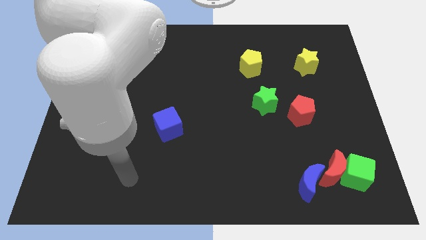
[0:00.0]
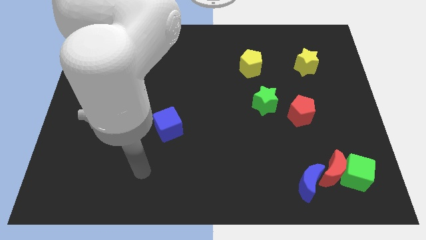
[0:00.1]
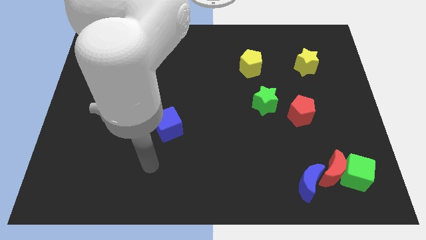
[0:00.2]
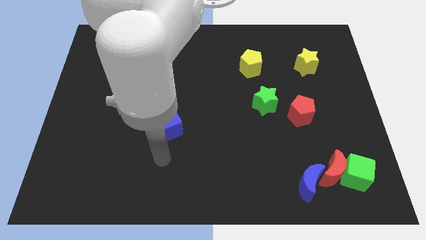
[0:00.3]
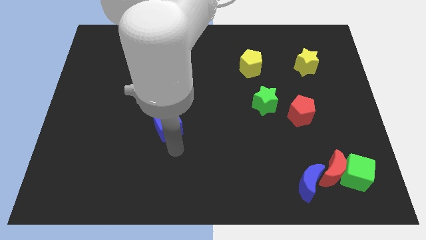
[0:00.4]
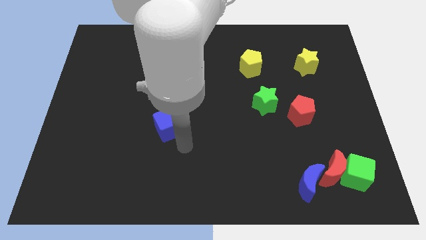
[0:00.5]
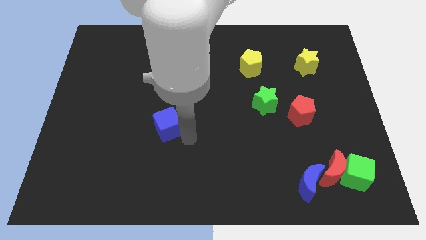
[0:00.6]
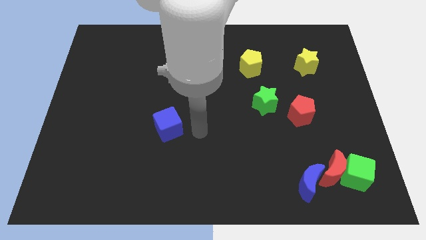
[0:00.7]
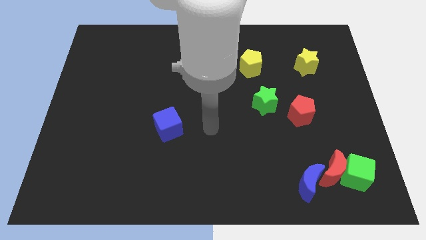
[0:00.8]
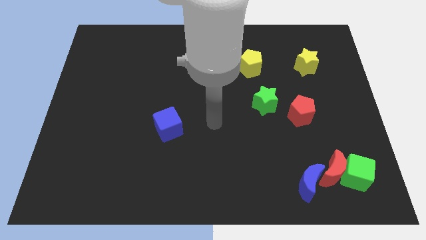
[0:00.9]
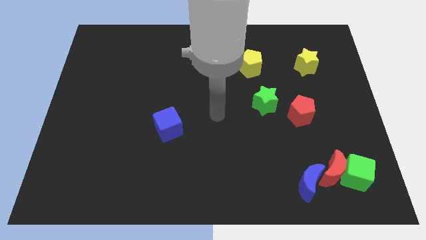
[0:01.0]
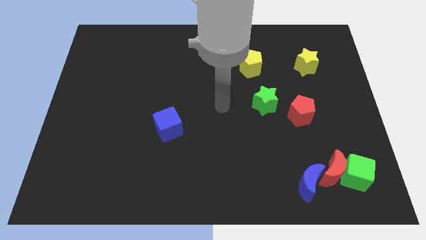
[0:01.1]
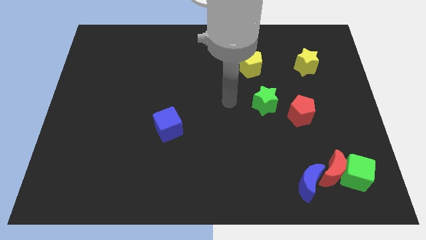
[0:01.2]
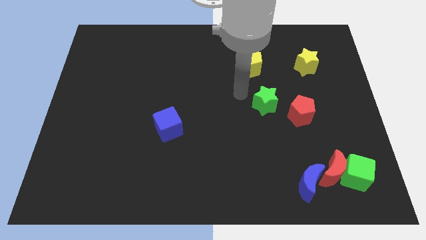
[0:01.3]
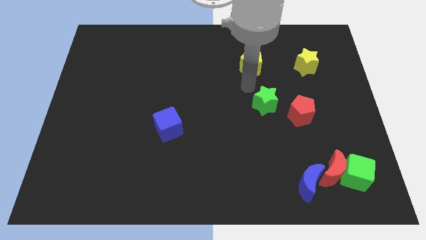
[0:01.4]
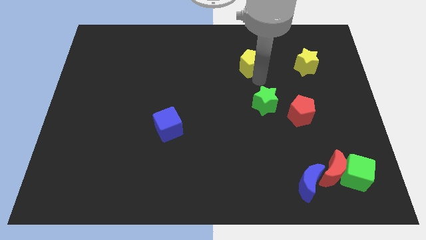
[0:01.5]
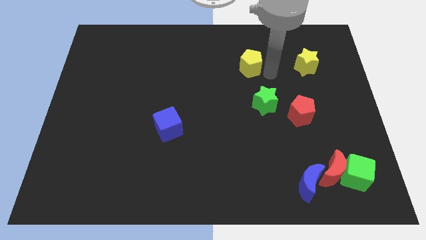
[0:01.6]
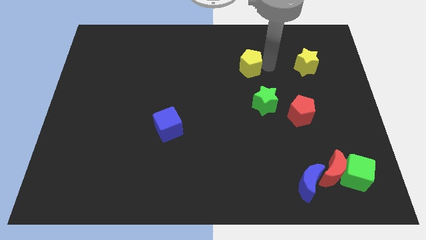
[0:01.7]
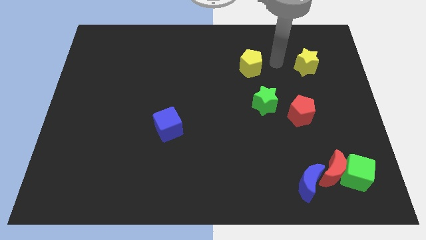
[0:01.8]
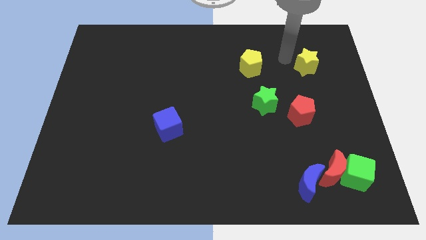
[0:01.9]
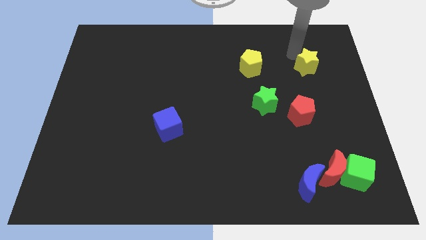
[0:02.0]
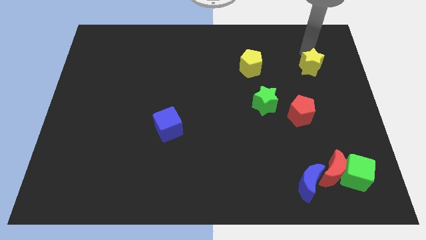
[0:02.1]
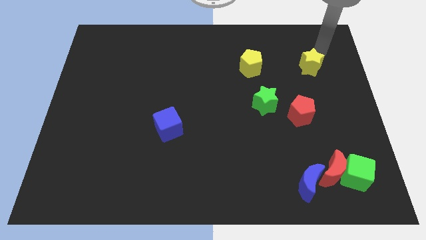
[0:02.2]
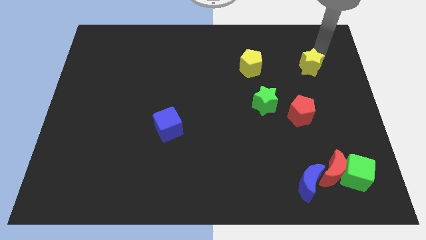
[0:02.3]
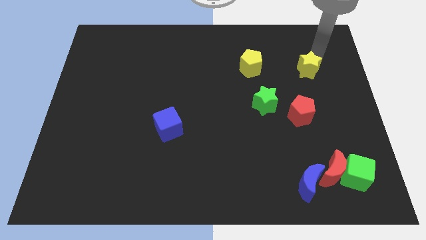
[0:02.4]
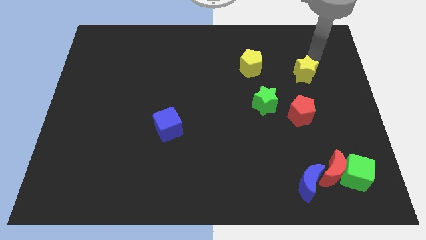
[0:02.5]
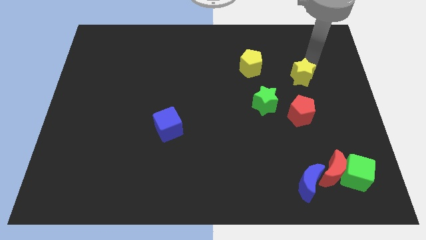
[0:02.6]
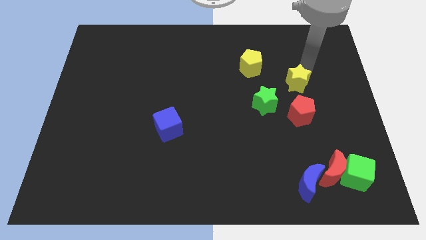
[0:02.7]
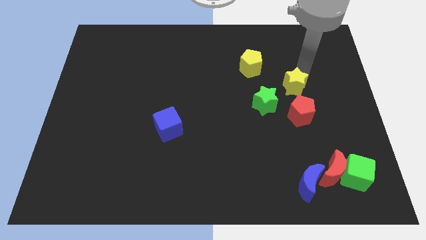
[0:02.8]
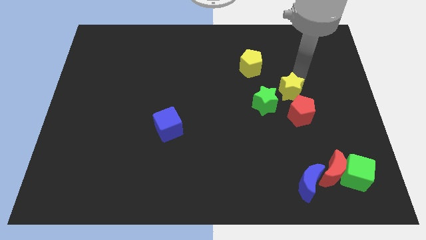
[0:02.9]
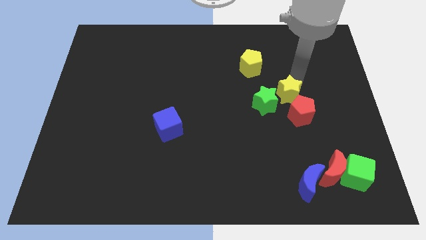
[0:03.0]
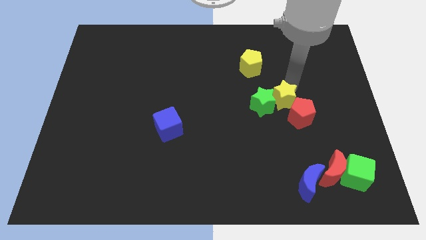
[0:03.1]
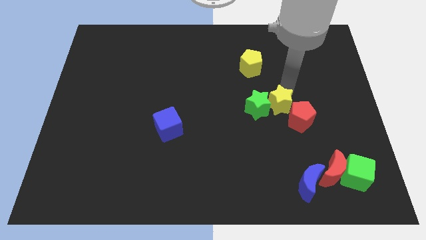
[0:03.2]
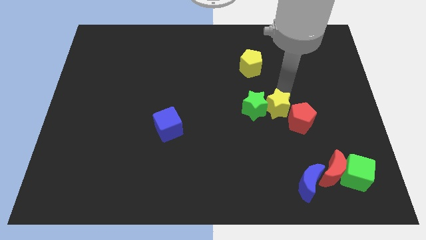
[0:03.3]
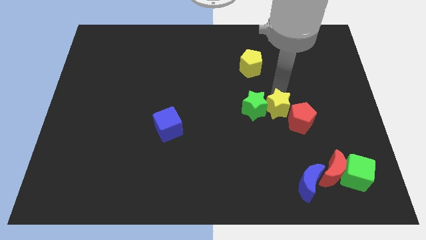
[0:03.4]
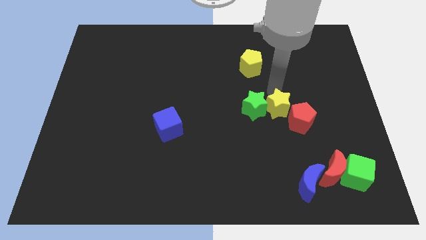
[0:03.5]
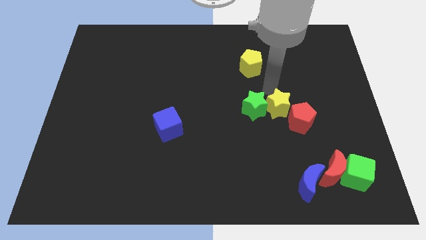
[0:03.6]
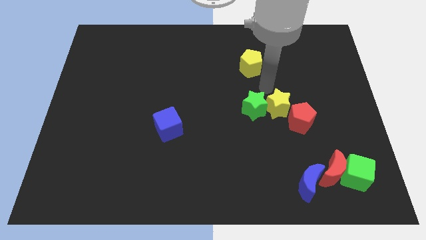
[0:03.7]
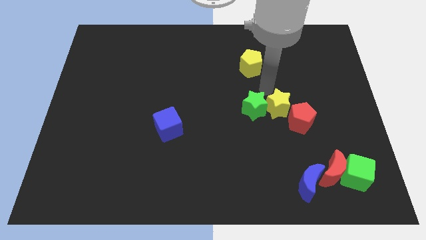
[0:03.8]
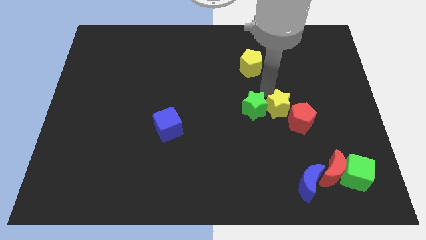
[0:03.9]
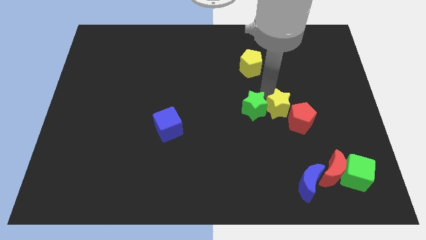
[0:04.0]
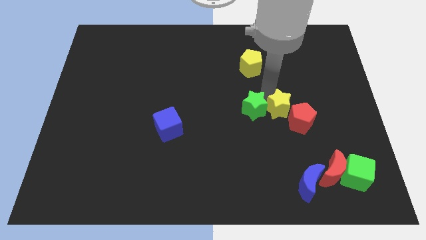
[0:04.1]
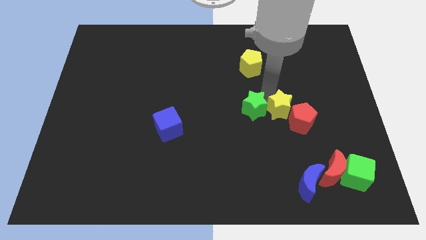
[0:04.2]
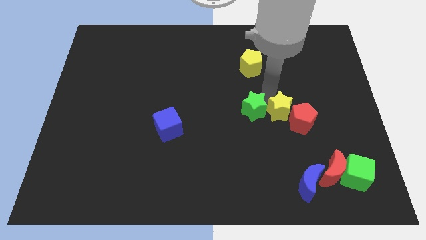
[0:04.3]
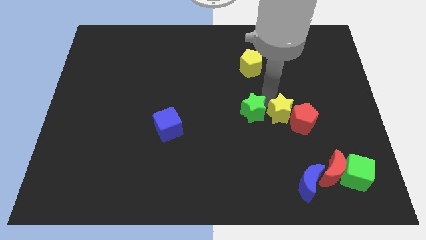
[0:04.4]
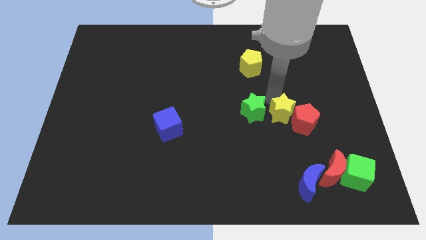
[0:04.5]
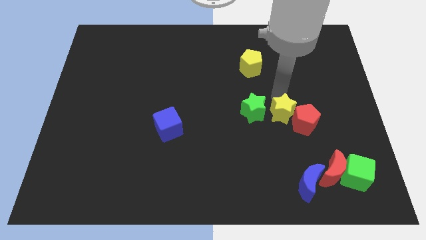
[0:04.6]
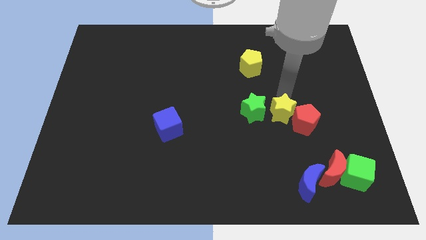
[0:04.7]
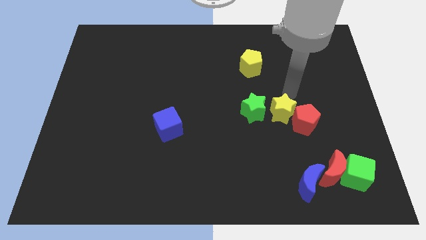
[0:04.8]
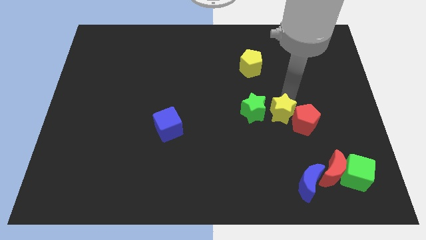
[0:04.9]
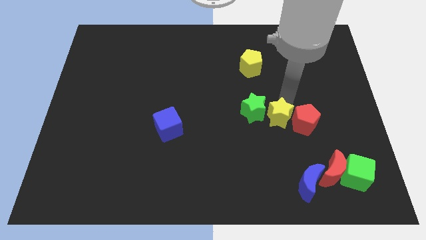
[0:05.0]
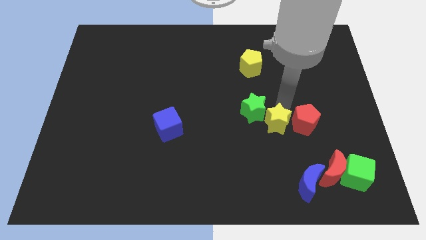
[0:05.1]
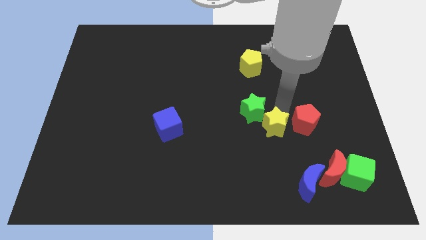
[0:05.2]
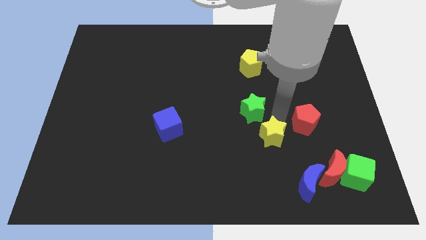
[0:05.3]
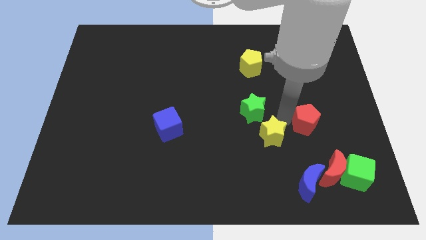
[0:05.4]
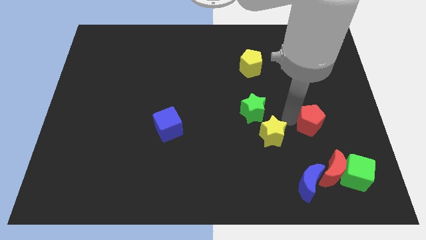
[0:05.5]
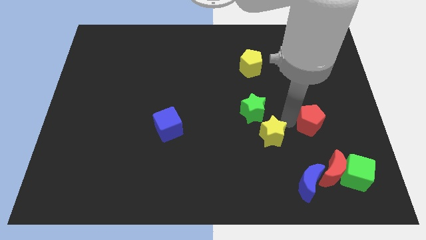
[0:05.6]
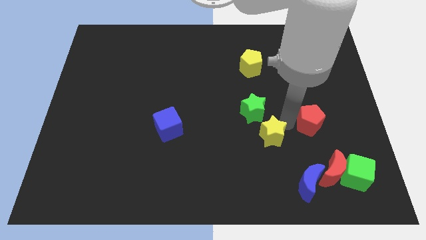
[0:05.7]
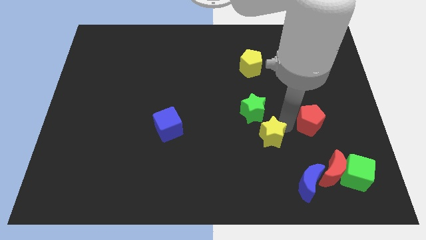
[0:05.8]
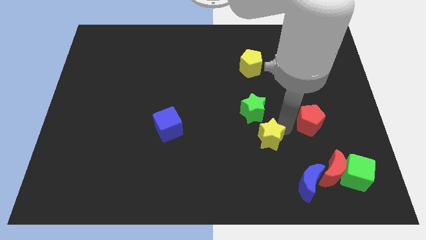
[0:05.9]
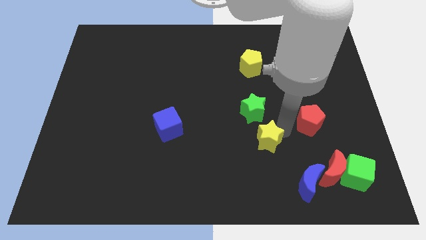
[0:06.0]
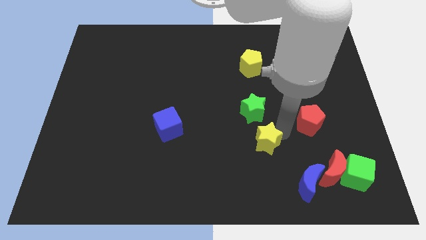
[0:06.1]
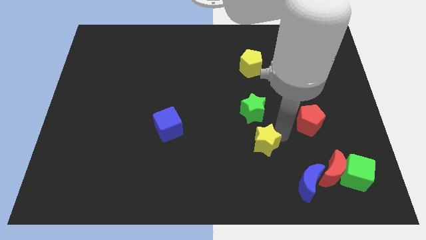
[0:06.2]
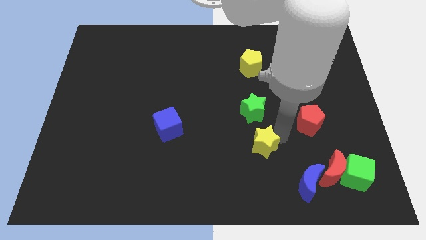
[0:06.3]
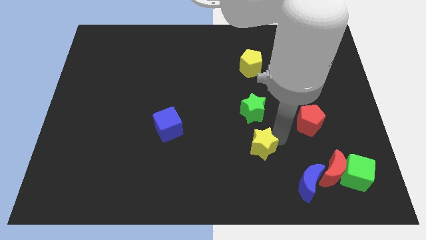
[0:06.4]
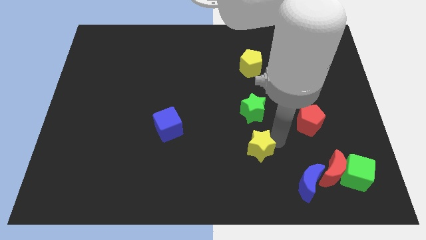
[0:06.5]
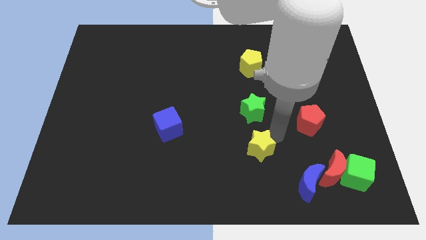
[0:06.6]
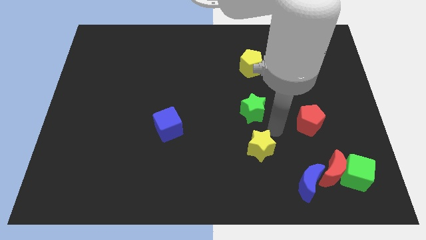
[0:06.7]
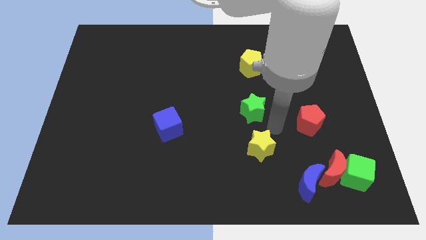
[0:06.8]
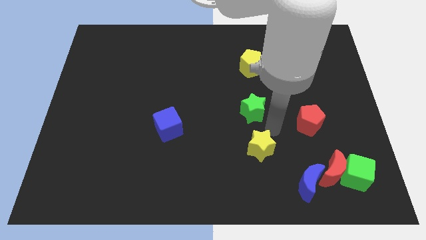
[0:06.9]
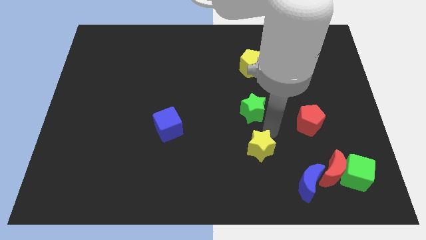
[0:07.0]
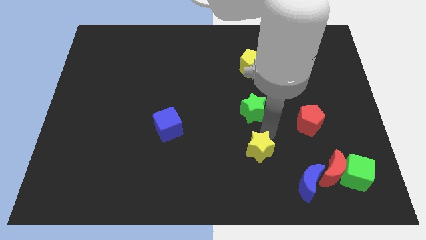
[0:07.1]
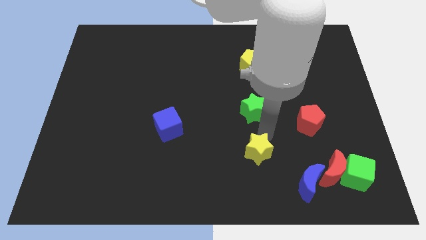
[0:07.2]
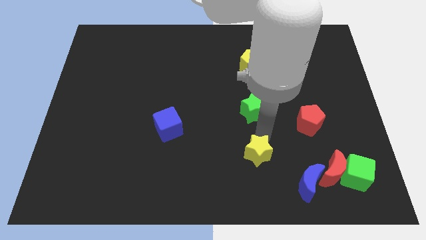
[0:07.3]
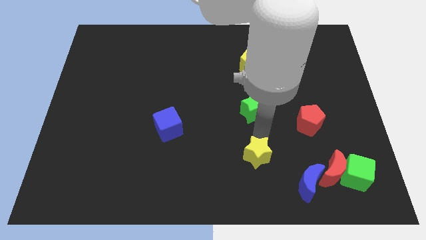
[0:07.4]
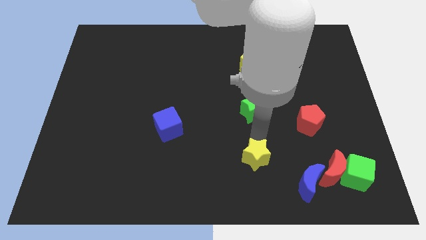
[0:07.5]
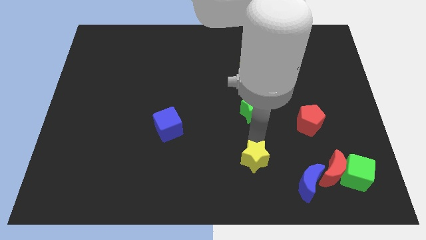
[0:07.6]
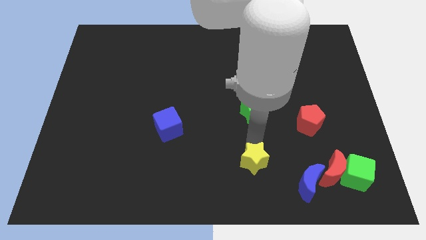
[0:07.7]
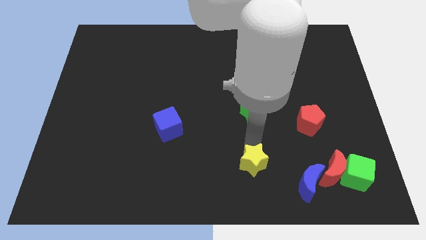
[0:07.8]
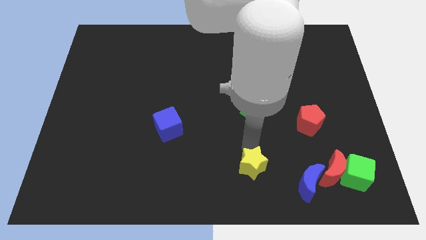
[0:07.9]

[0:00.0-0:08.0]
put the yellow star to the bottom side
